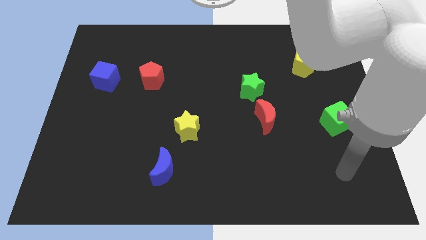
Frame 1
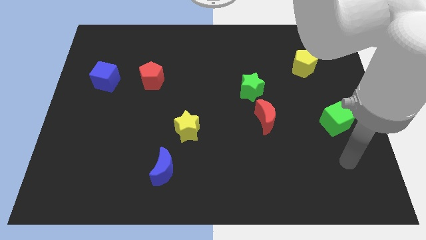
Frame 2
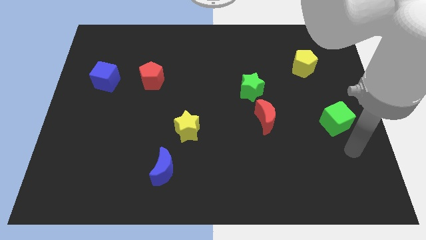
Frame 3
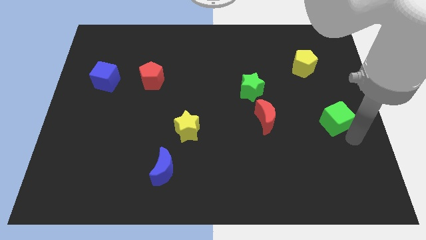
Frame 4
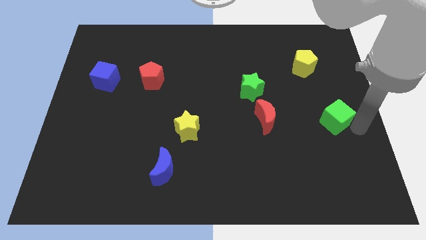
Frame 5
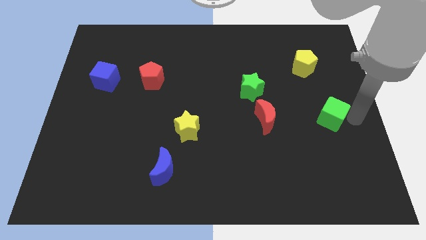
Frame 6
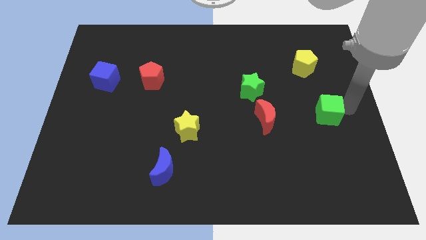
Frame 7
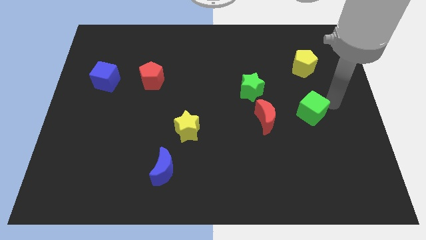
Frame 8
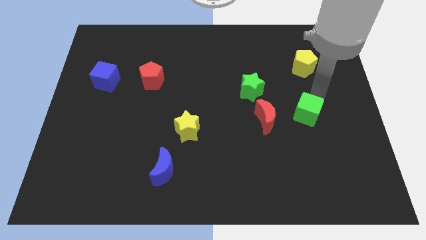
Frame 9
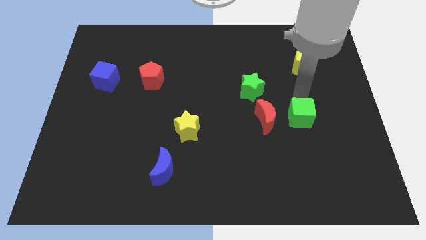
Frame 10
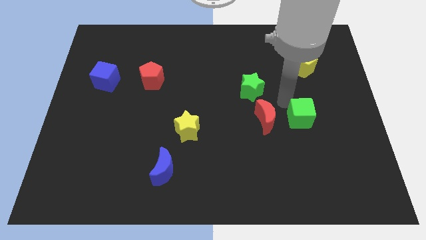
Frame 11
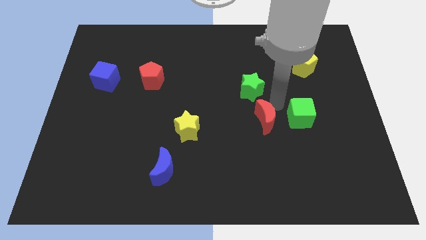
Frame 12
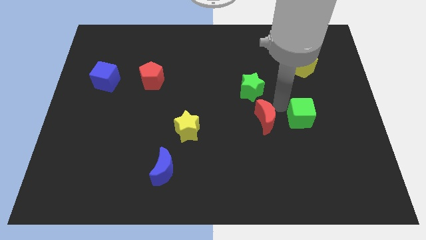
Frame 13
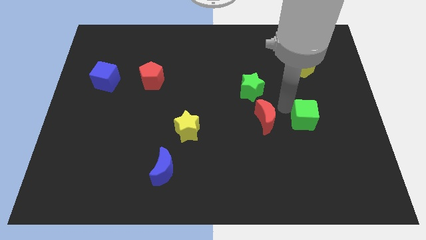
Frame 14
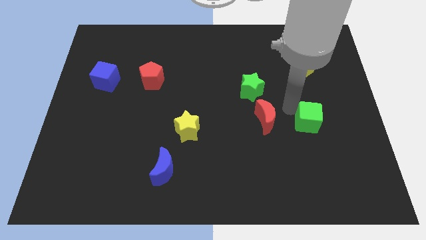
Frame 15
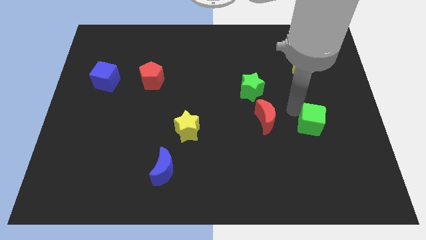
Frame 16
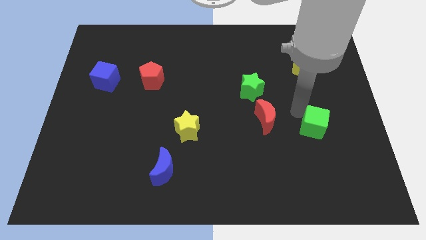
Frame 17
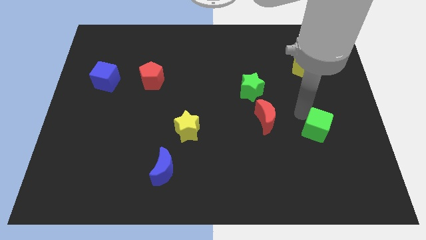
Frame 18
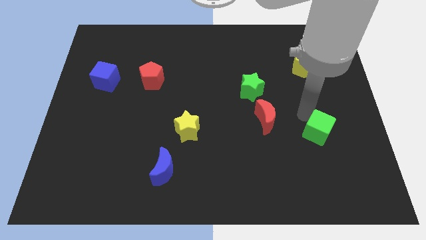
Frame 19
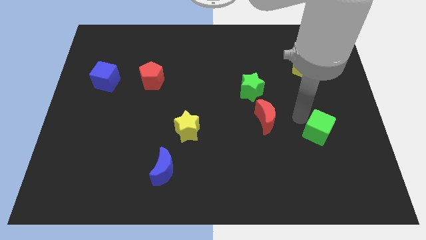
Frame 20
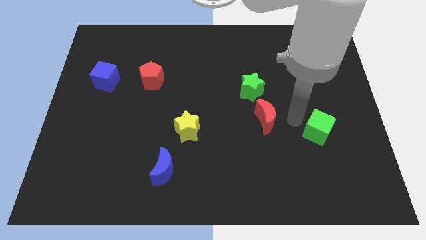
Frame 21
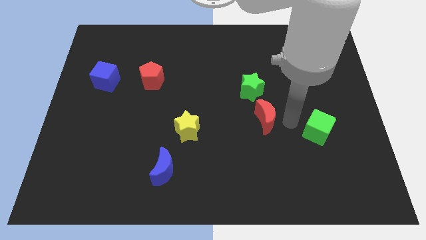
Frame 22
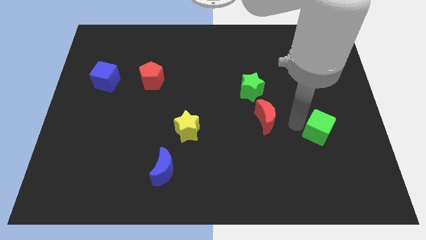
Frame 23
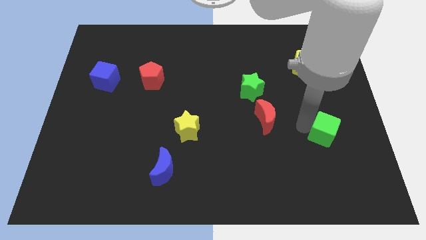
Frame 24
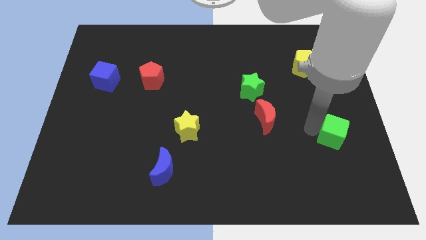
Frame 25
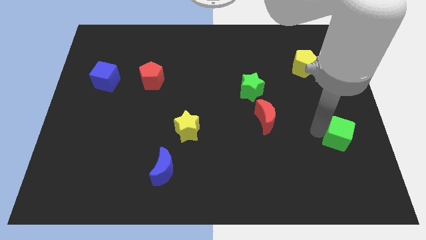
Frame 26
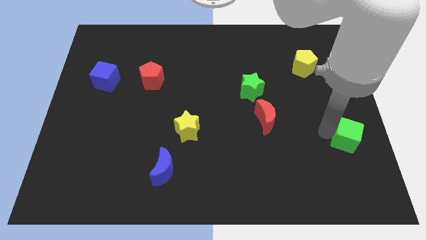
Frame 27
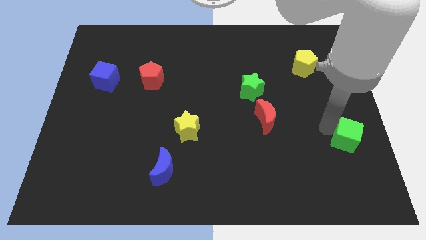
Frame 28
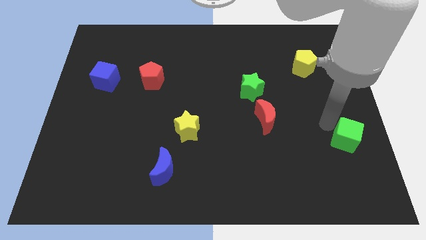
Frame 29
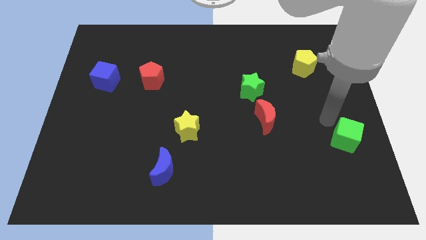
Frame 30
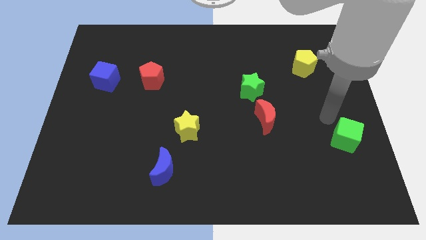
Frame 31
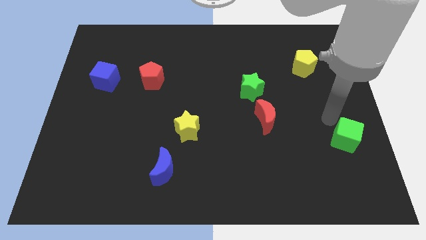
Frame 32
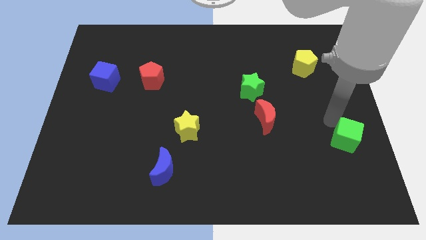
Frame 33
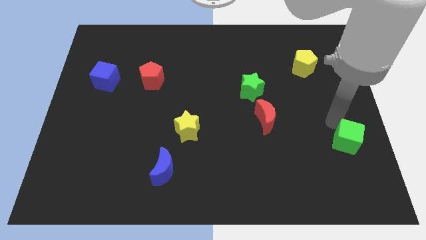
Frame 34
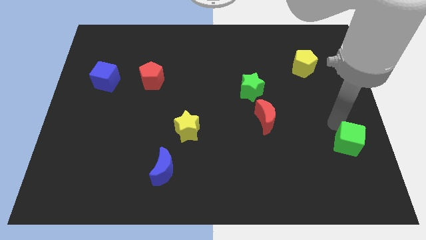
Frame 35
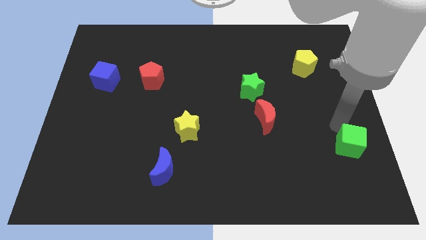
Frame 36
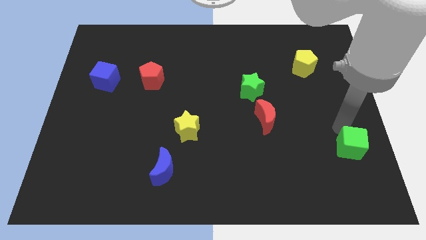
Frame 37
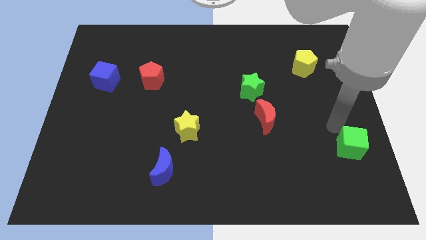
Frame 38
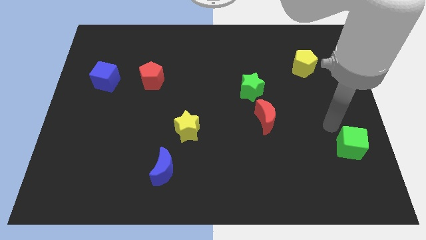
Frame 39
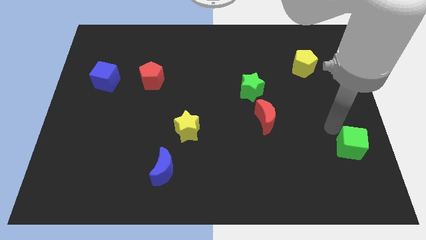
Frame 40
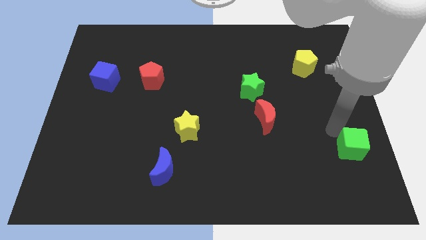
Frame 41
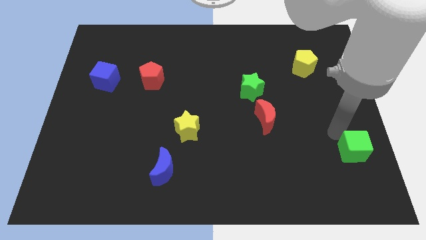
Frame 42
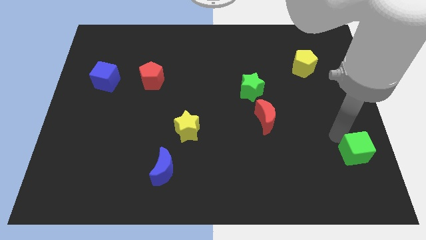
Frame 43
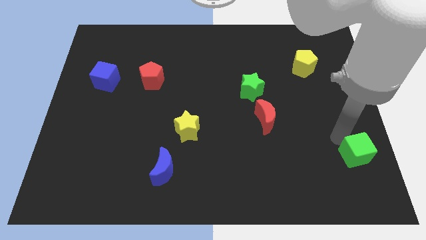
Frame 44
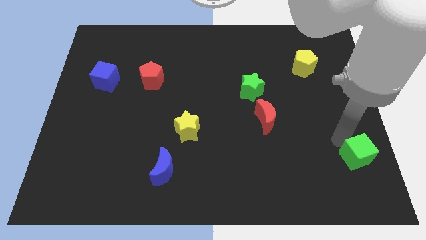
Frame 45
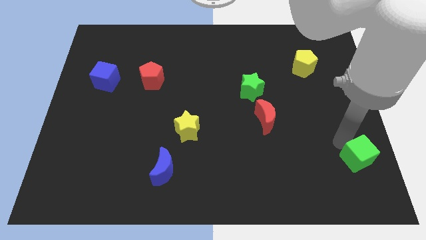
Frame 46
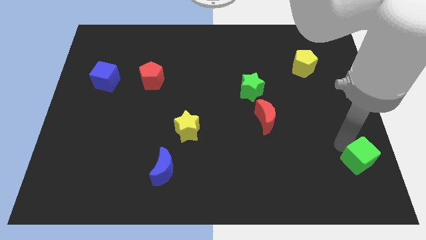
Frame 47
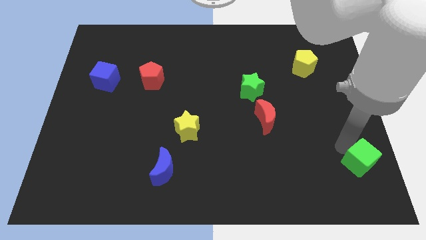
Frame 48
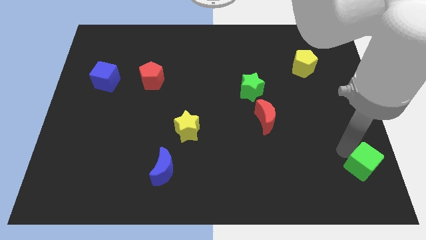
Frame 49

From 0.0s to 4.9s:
put the green cube to the bottom right of the board

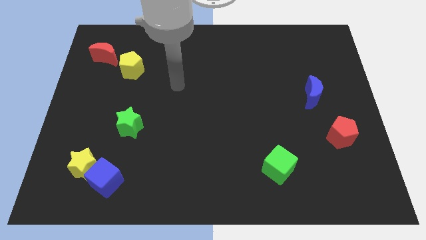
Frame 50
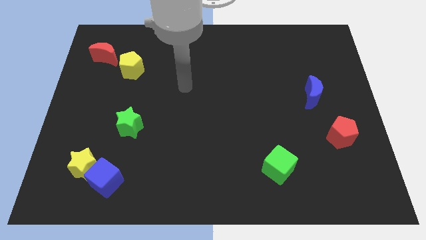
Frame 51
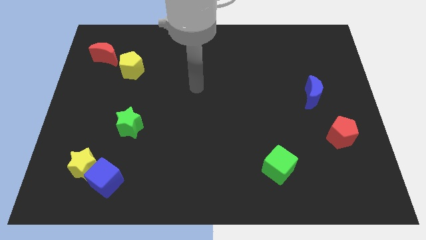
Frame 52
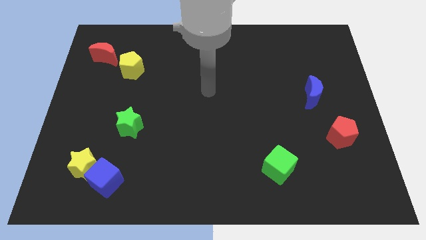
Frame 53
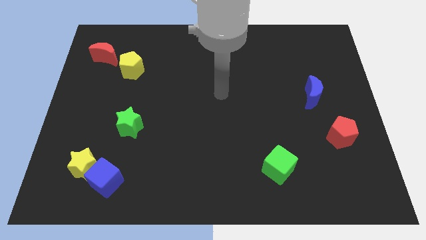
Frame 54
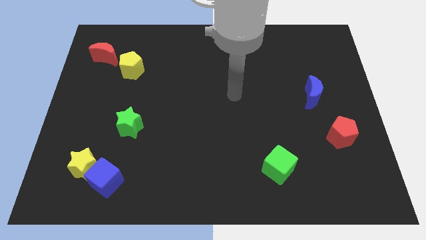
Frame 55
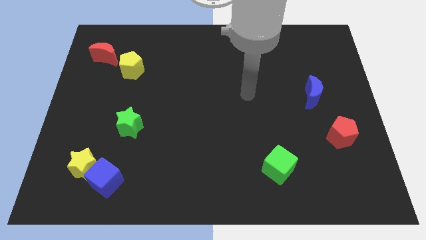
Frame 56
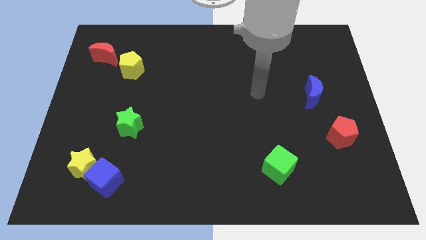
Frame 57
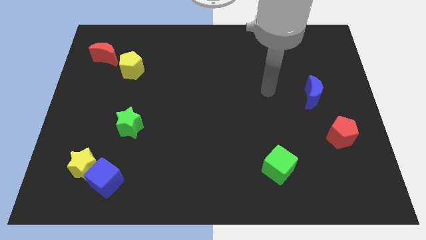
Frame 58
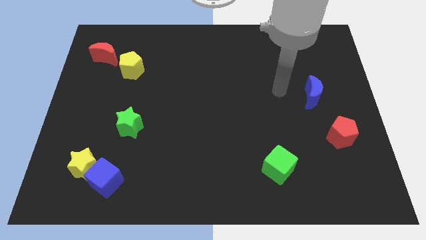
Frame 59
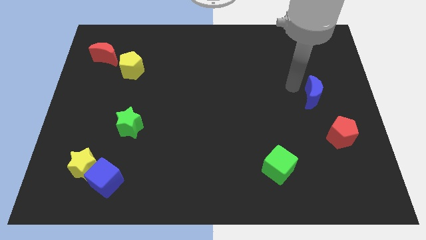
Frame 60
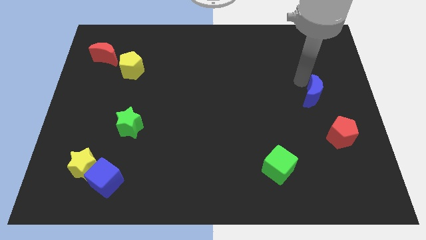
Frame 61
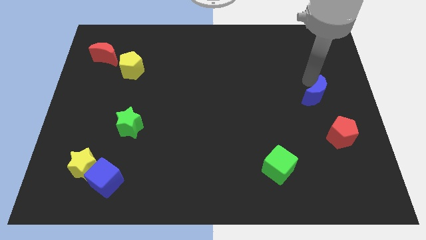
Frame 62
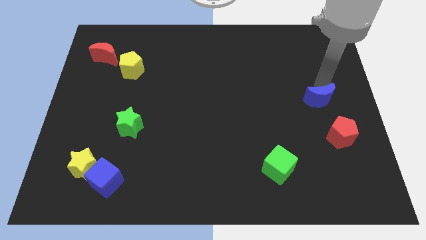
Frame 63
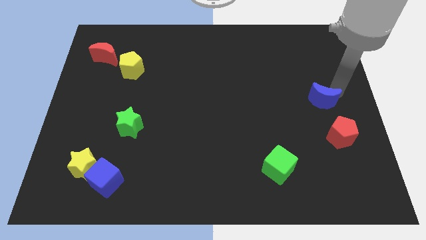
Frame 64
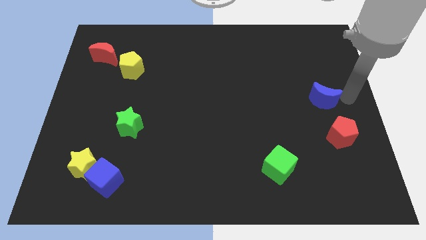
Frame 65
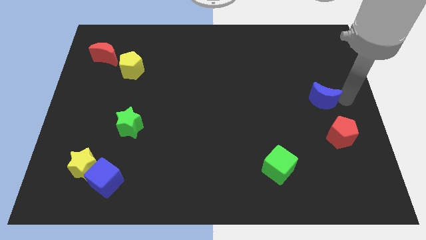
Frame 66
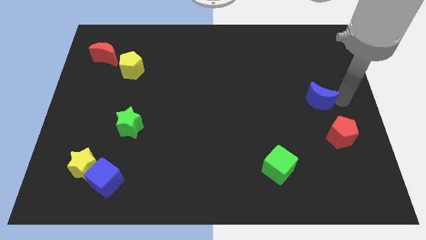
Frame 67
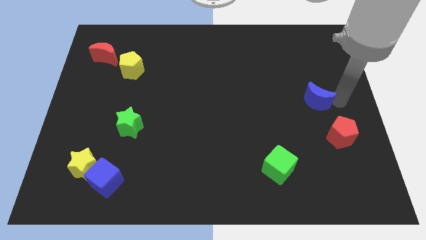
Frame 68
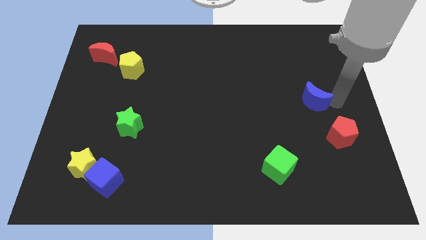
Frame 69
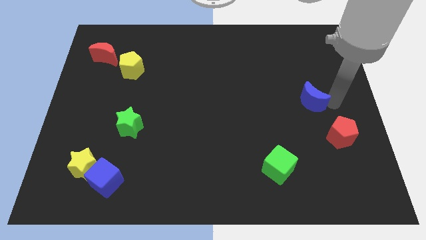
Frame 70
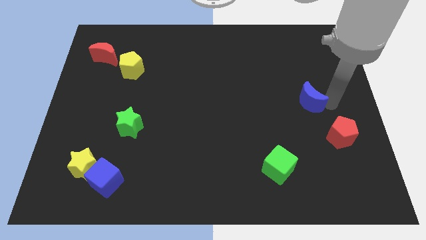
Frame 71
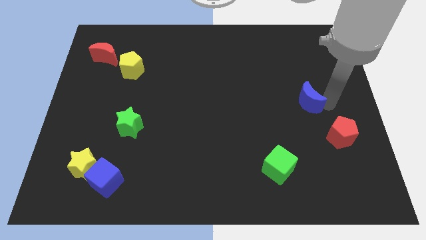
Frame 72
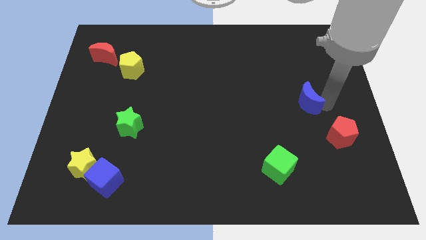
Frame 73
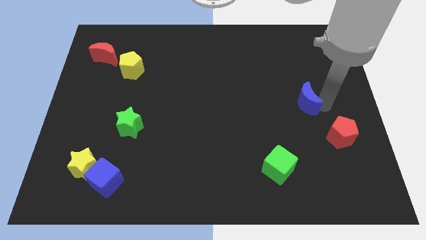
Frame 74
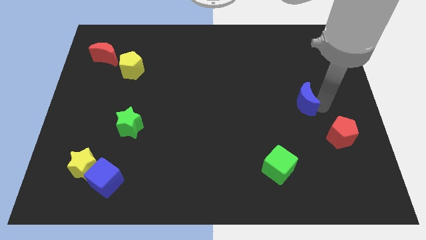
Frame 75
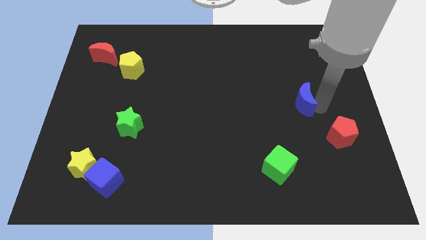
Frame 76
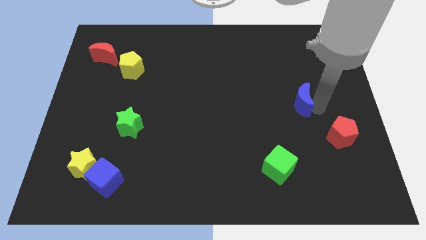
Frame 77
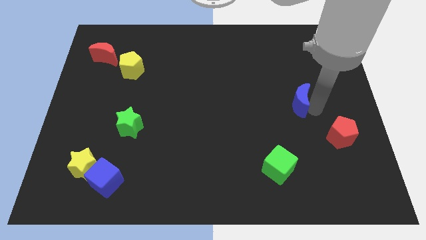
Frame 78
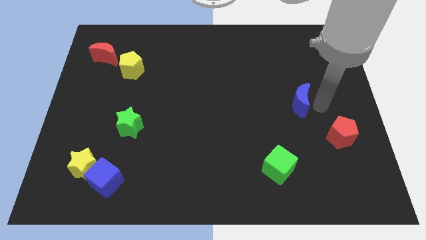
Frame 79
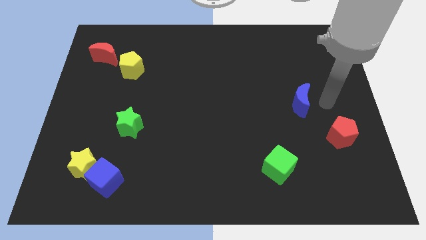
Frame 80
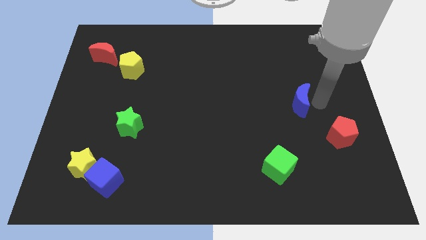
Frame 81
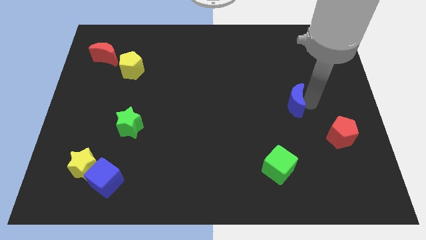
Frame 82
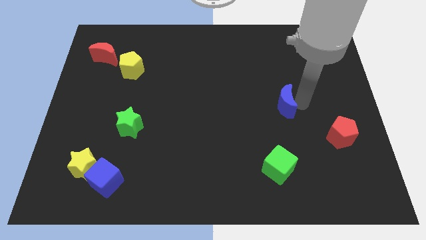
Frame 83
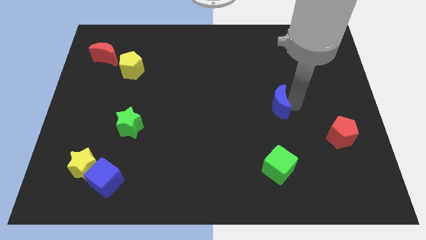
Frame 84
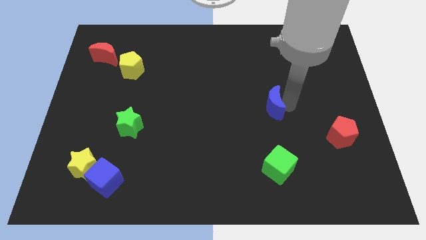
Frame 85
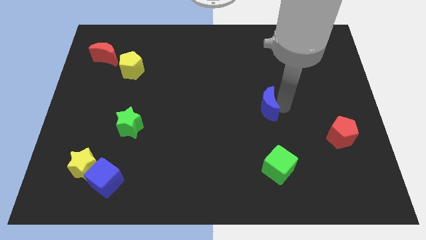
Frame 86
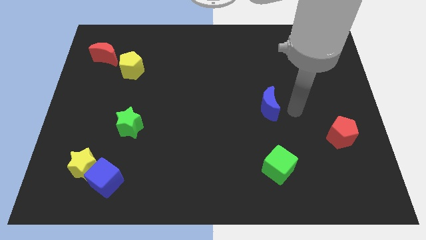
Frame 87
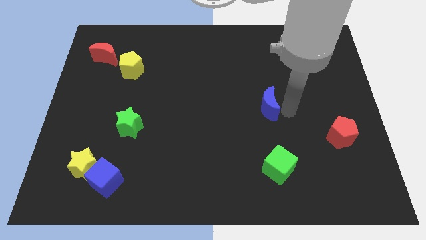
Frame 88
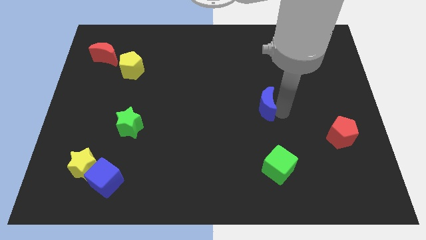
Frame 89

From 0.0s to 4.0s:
put the blue moon to the center
